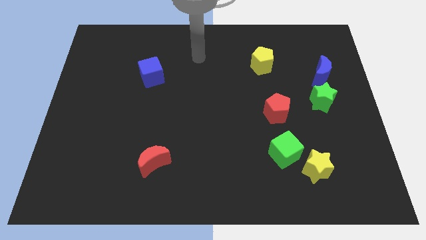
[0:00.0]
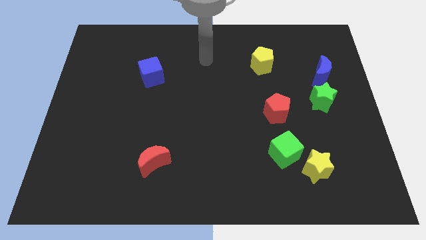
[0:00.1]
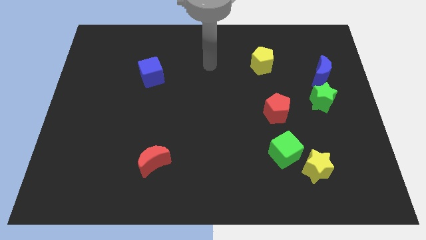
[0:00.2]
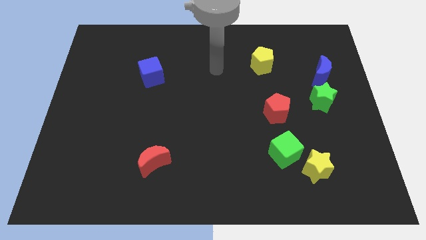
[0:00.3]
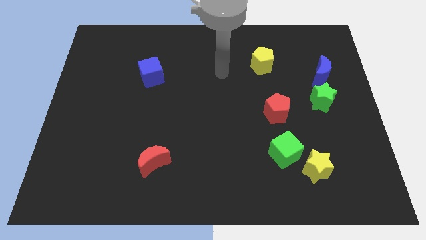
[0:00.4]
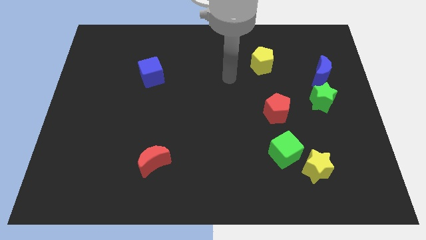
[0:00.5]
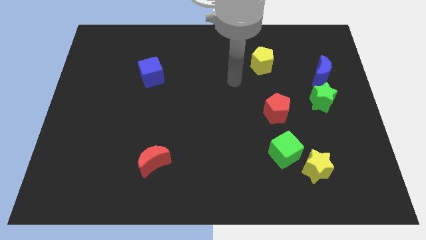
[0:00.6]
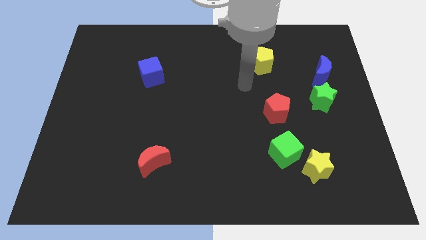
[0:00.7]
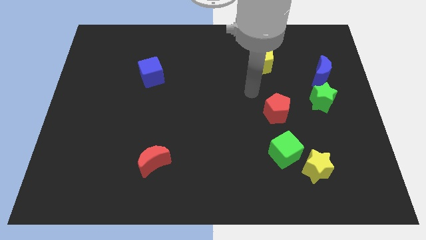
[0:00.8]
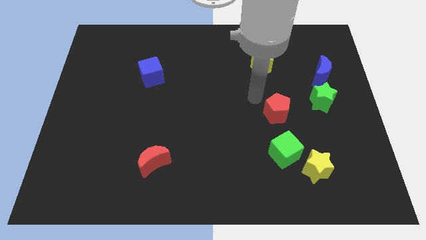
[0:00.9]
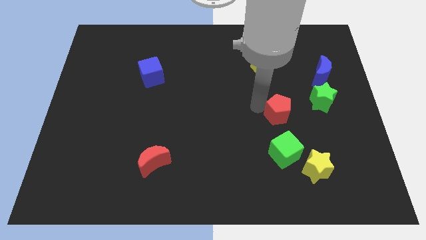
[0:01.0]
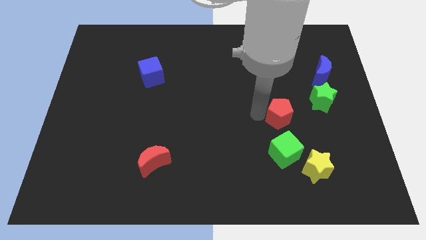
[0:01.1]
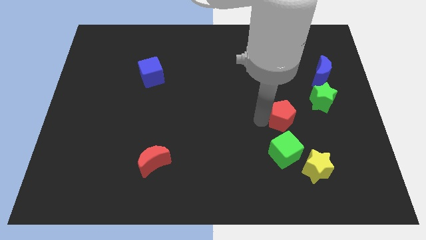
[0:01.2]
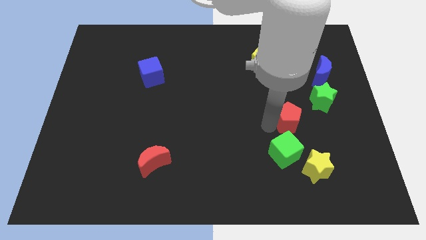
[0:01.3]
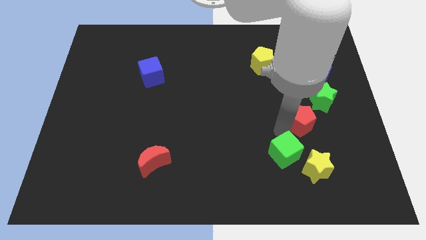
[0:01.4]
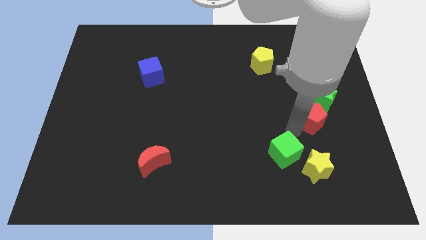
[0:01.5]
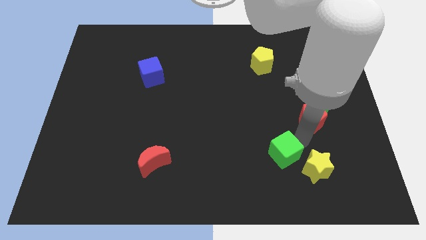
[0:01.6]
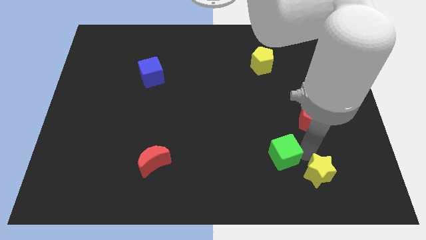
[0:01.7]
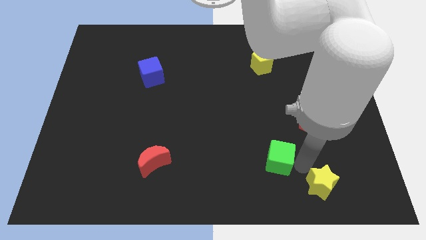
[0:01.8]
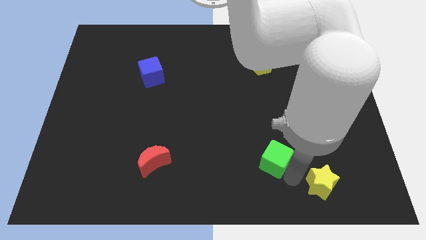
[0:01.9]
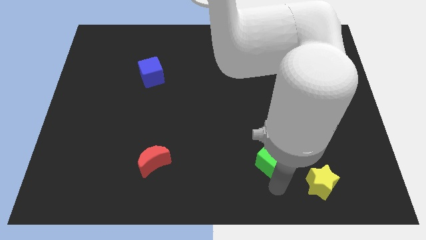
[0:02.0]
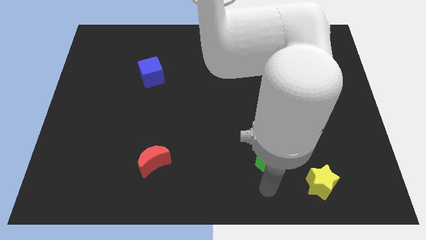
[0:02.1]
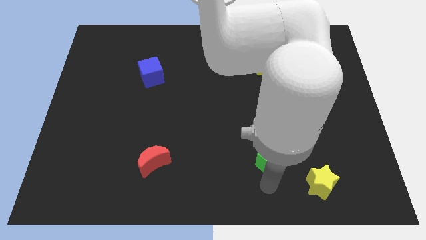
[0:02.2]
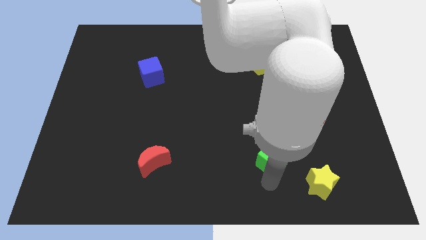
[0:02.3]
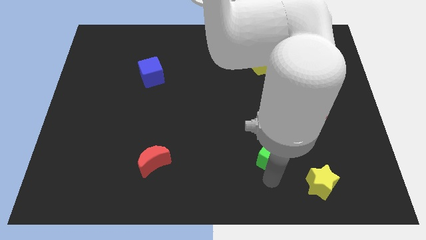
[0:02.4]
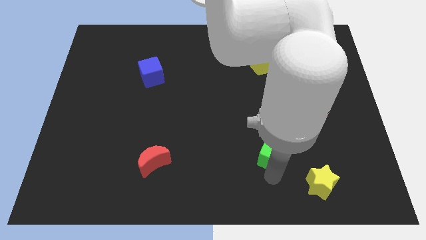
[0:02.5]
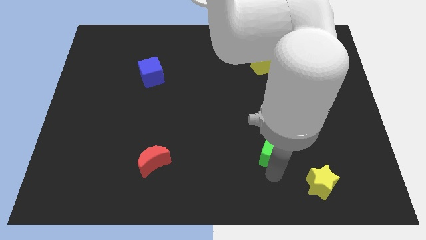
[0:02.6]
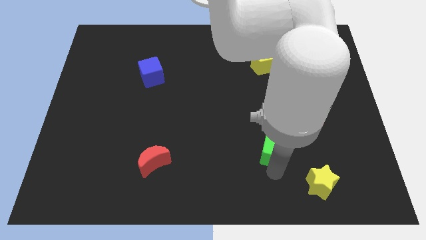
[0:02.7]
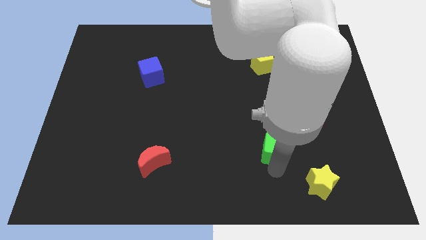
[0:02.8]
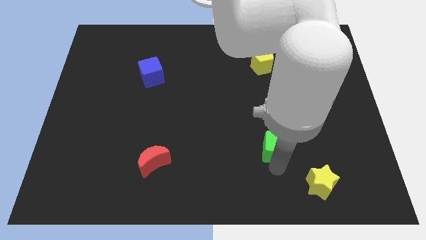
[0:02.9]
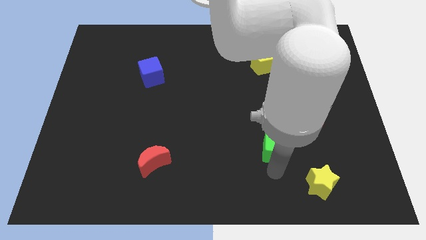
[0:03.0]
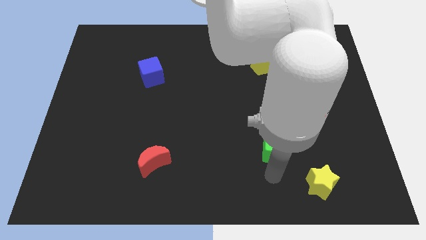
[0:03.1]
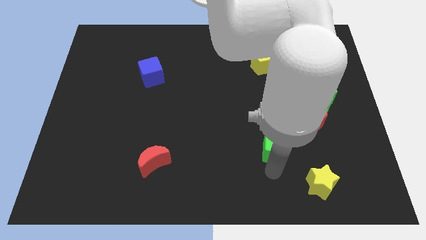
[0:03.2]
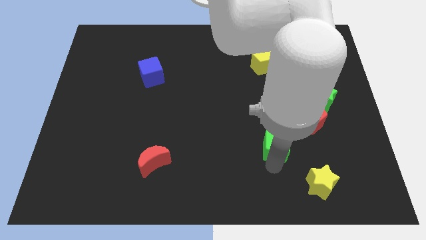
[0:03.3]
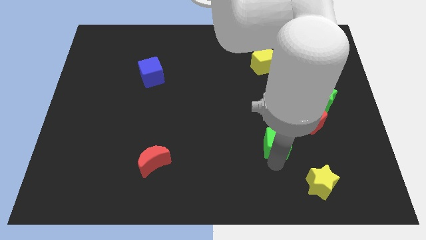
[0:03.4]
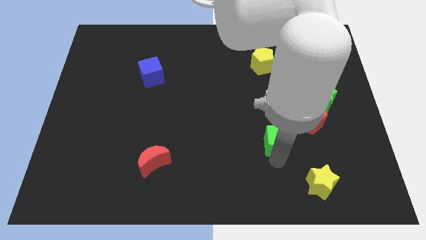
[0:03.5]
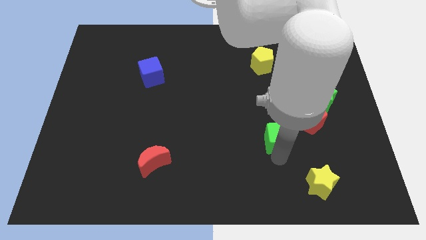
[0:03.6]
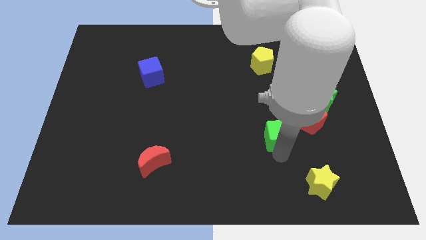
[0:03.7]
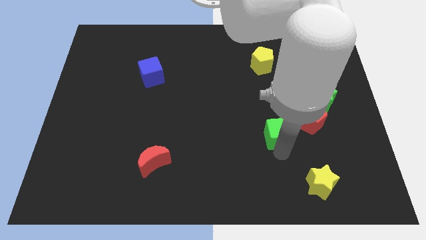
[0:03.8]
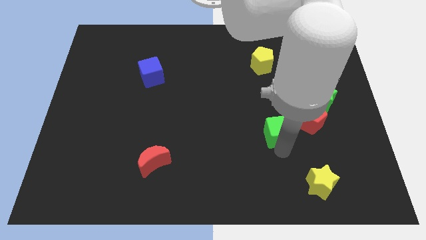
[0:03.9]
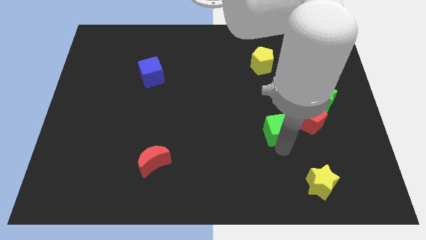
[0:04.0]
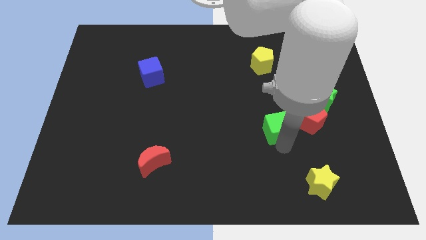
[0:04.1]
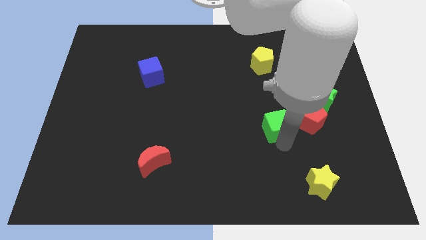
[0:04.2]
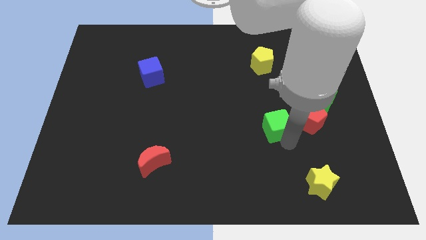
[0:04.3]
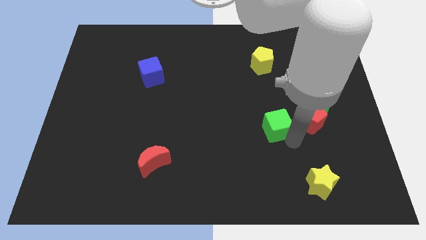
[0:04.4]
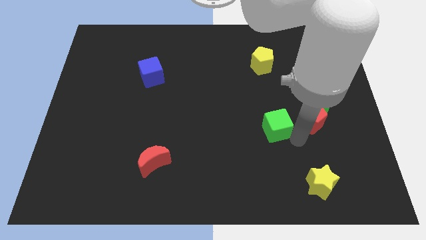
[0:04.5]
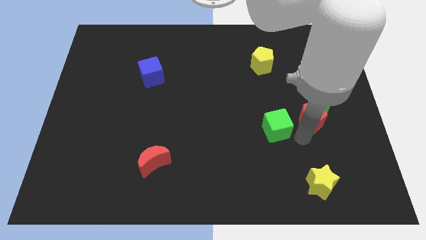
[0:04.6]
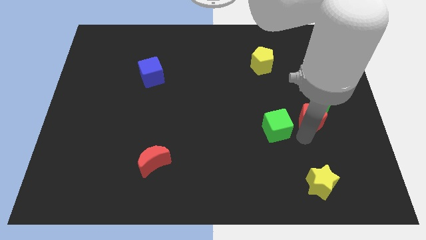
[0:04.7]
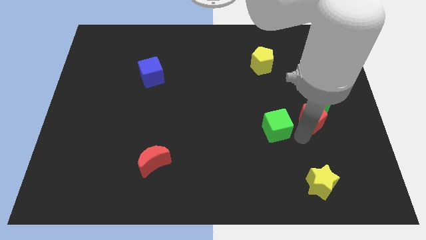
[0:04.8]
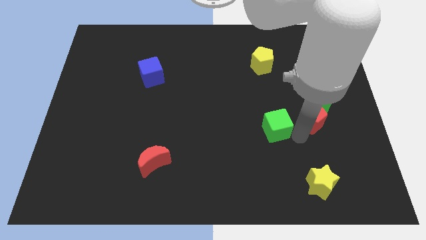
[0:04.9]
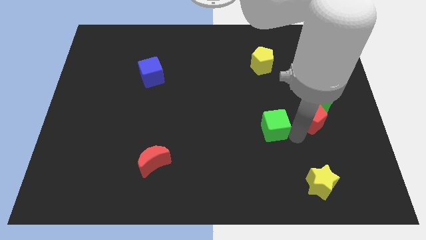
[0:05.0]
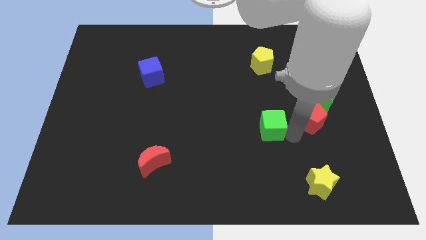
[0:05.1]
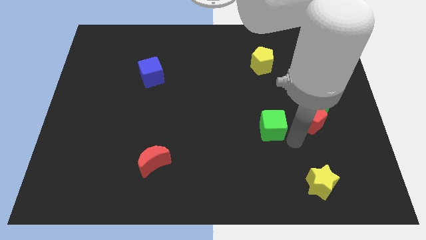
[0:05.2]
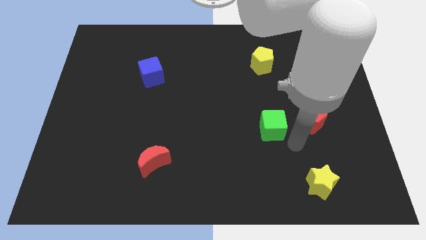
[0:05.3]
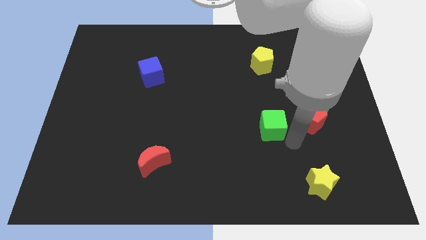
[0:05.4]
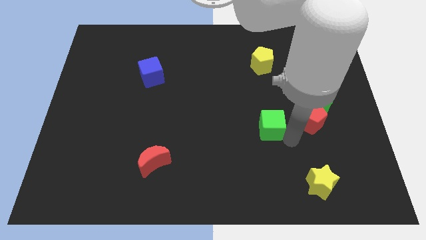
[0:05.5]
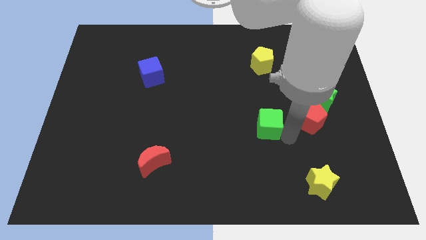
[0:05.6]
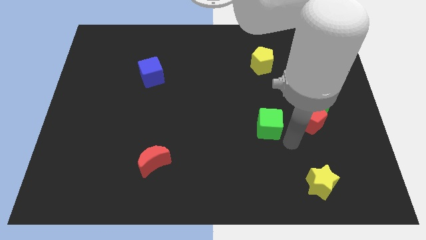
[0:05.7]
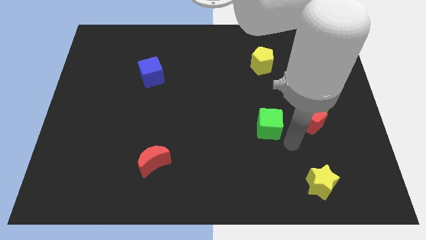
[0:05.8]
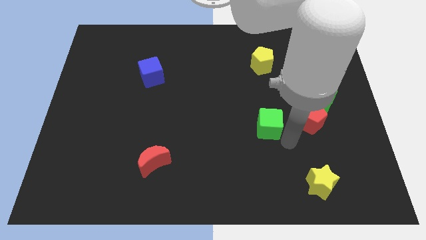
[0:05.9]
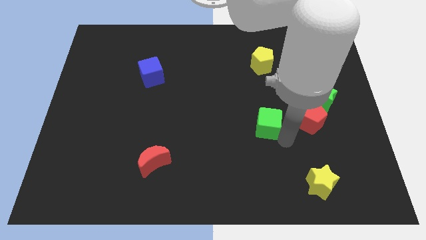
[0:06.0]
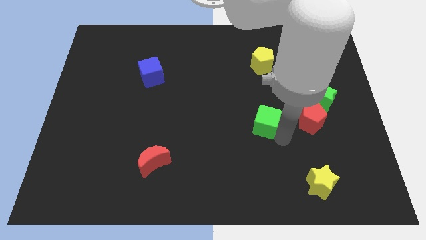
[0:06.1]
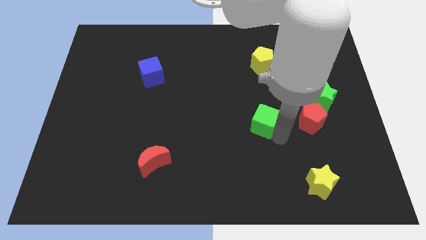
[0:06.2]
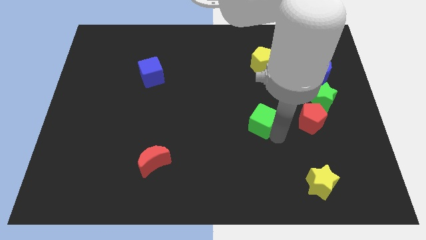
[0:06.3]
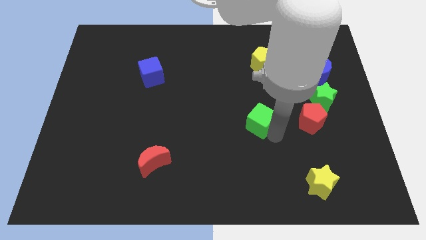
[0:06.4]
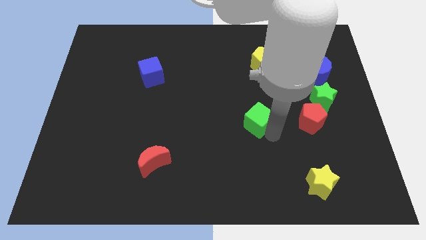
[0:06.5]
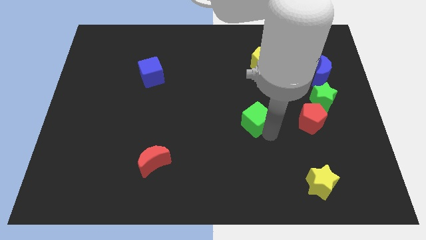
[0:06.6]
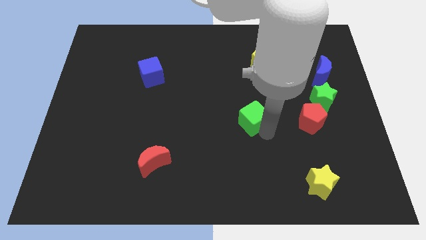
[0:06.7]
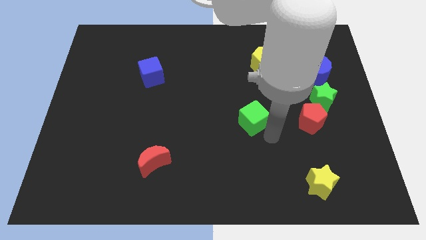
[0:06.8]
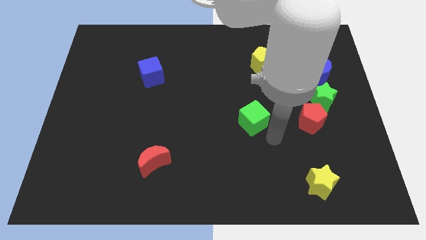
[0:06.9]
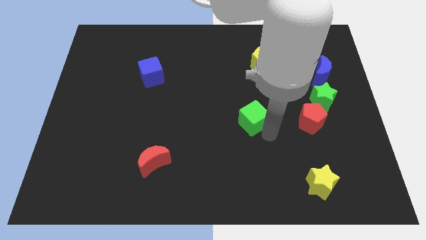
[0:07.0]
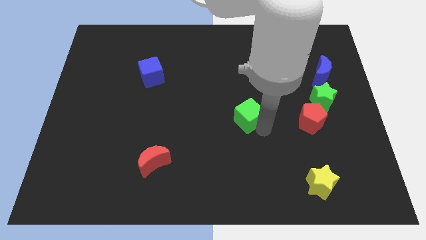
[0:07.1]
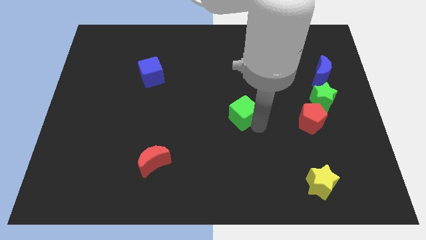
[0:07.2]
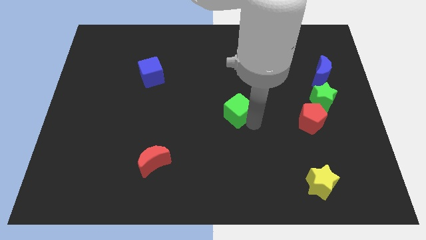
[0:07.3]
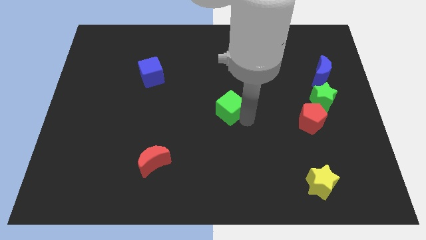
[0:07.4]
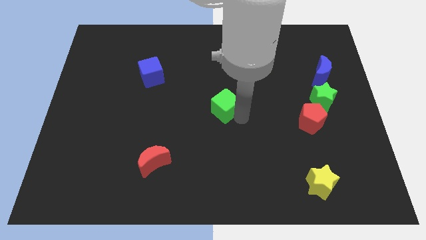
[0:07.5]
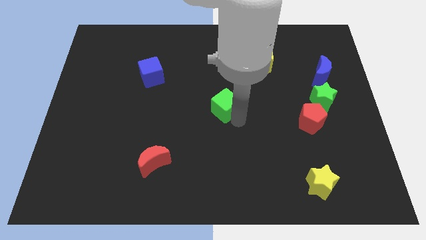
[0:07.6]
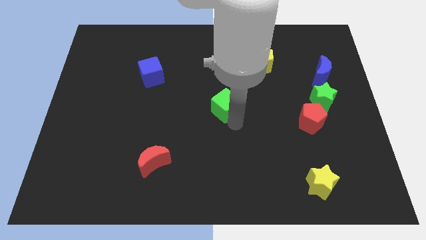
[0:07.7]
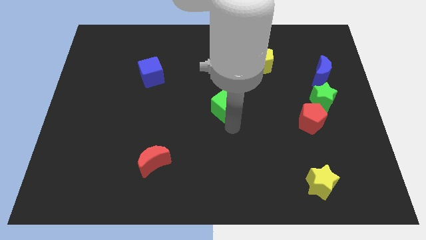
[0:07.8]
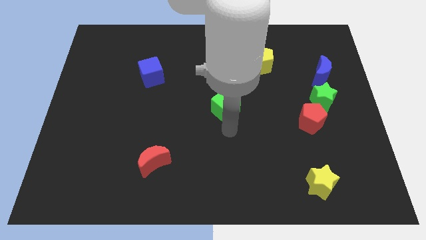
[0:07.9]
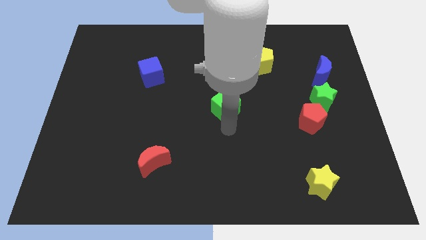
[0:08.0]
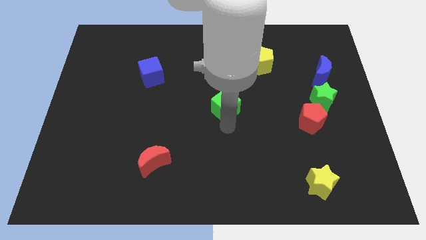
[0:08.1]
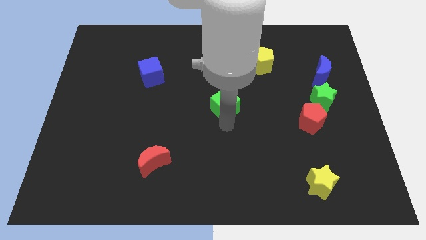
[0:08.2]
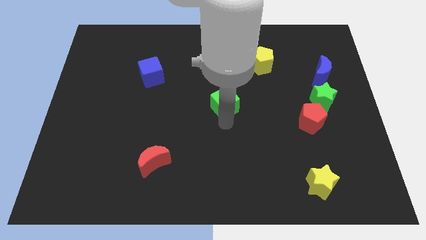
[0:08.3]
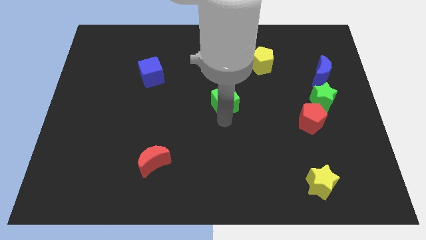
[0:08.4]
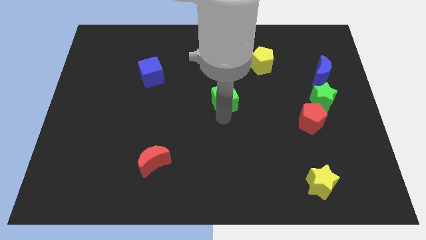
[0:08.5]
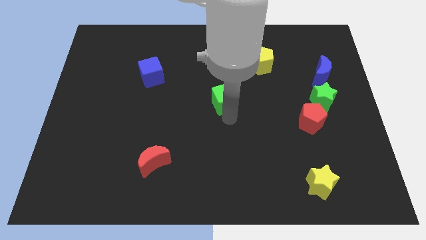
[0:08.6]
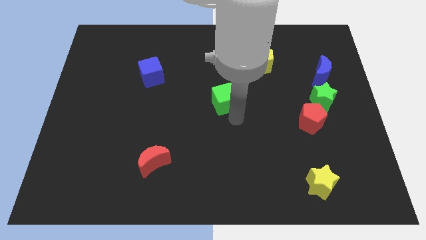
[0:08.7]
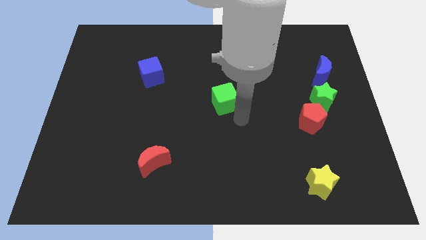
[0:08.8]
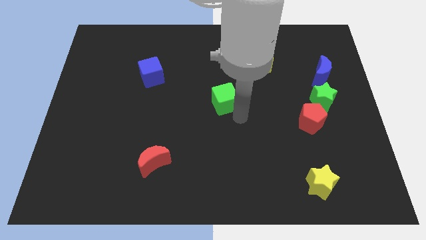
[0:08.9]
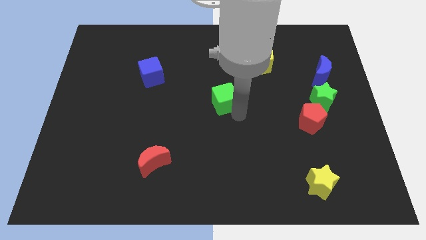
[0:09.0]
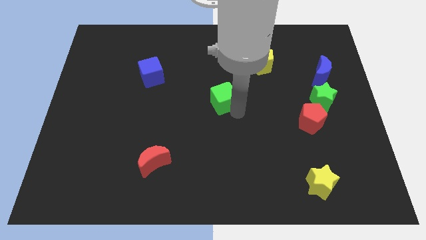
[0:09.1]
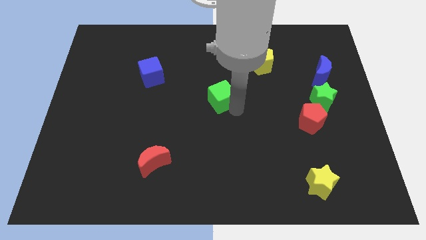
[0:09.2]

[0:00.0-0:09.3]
slide the green cube up and to the left diagonally
